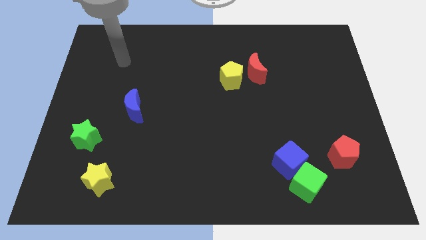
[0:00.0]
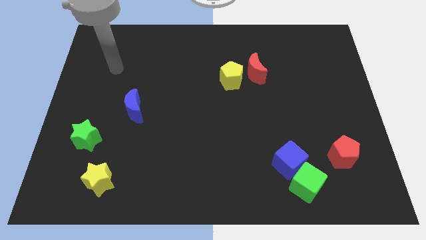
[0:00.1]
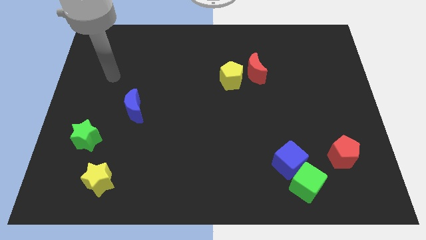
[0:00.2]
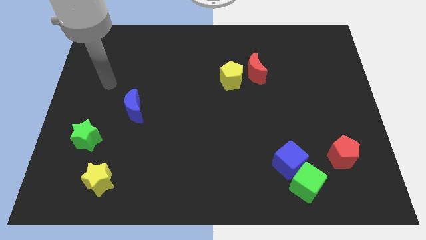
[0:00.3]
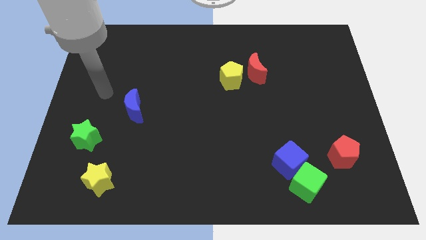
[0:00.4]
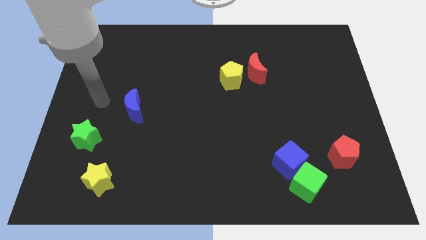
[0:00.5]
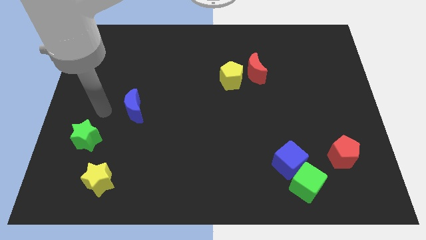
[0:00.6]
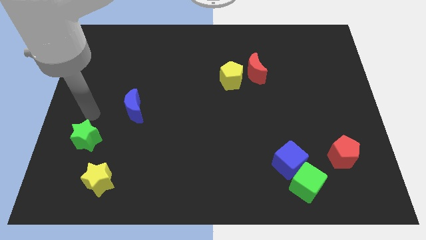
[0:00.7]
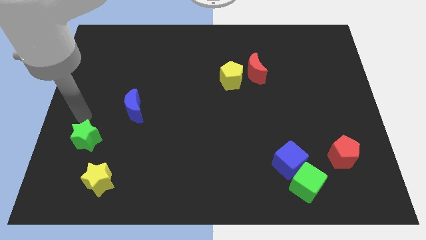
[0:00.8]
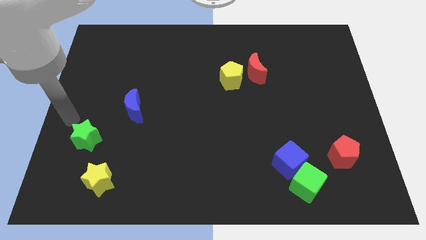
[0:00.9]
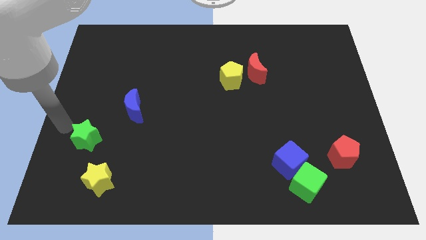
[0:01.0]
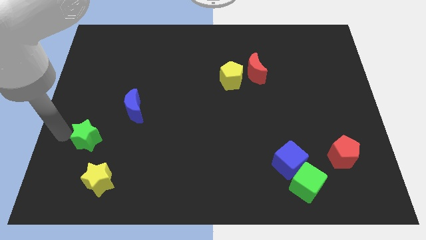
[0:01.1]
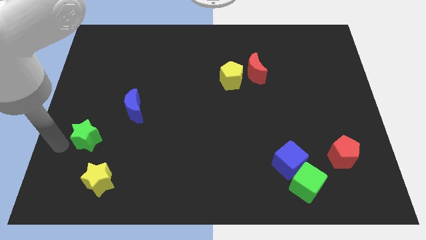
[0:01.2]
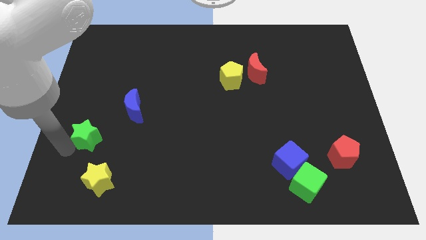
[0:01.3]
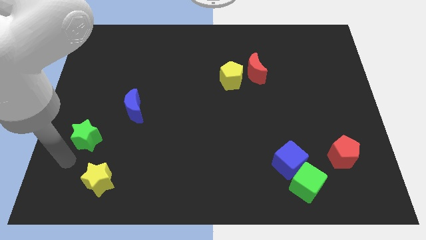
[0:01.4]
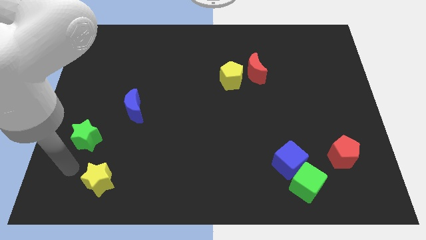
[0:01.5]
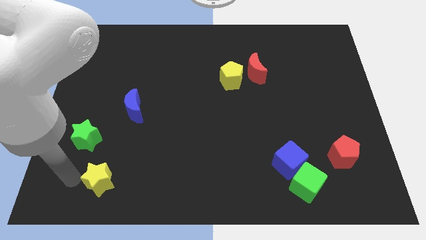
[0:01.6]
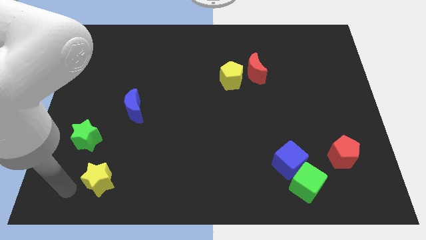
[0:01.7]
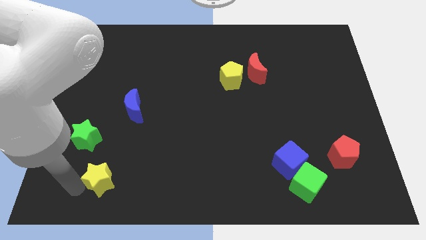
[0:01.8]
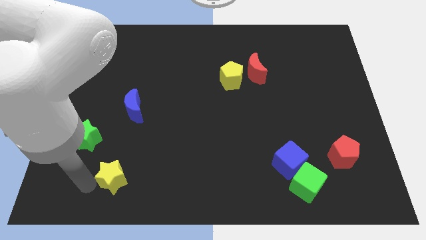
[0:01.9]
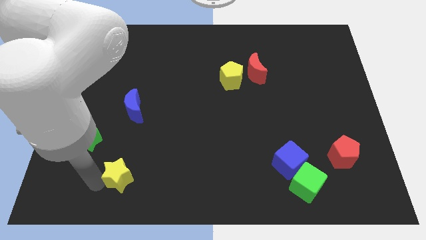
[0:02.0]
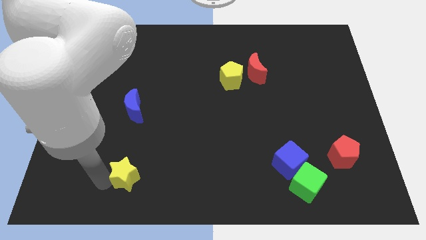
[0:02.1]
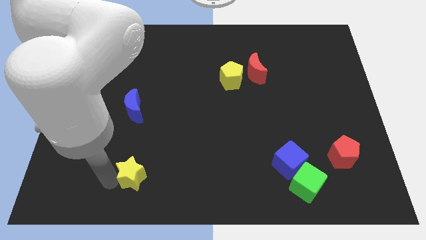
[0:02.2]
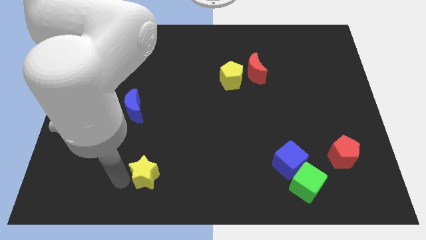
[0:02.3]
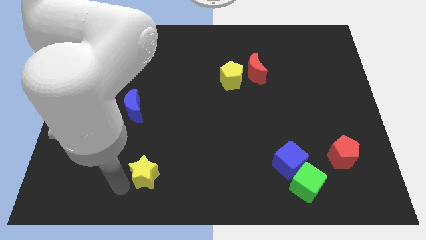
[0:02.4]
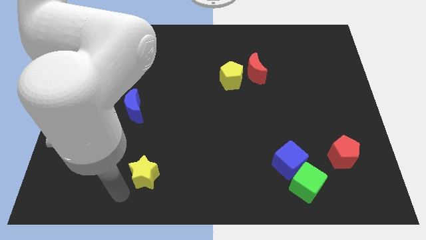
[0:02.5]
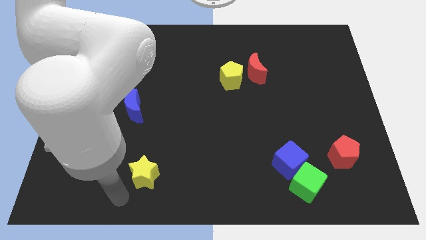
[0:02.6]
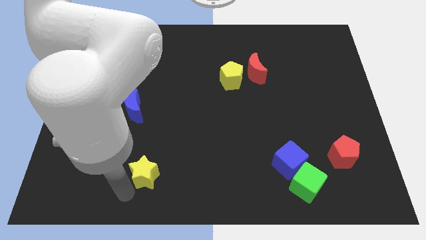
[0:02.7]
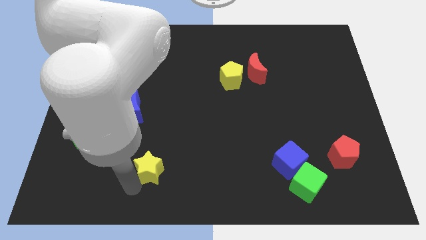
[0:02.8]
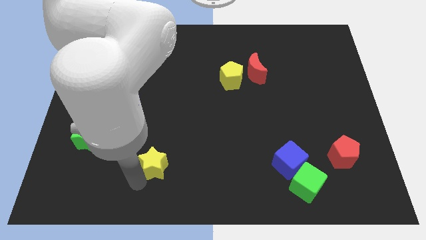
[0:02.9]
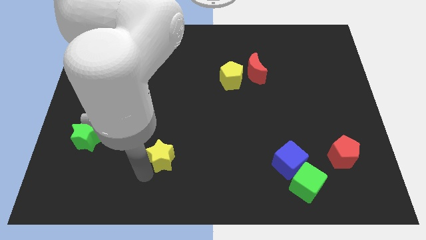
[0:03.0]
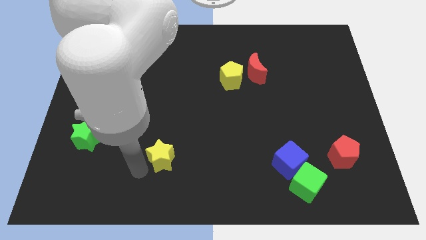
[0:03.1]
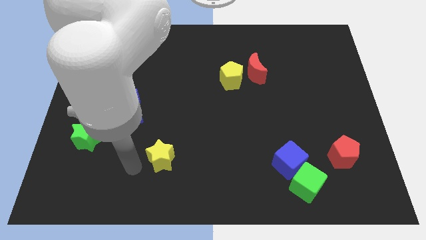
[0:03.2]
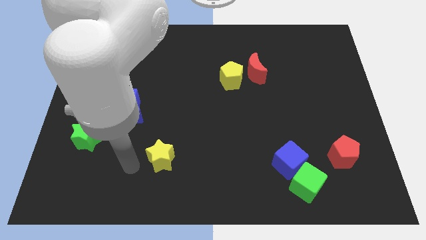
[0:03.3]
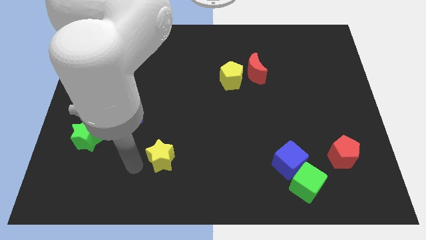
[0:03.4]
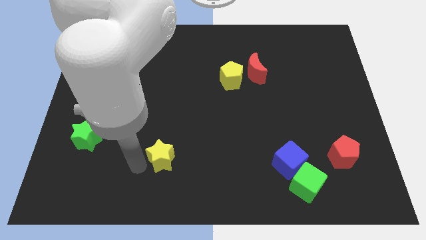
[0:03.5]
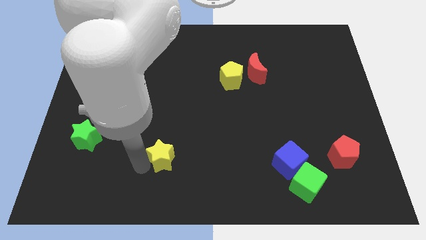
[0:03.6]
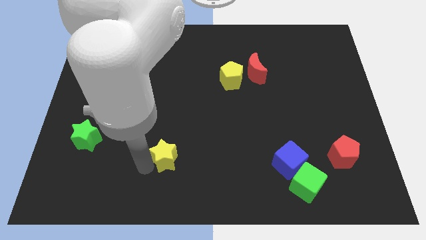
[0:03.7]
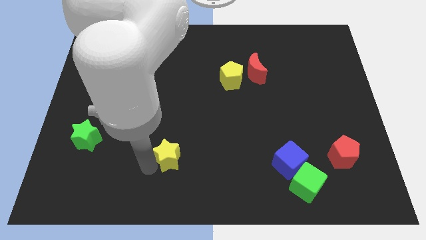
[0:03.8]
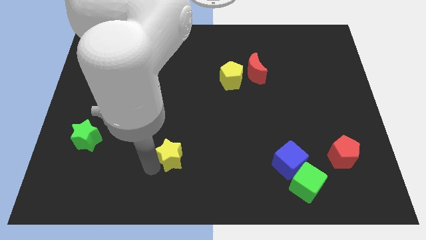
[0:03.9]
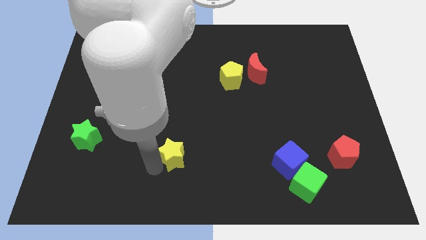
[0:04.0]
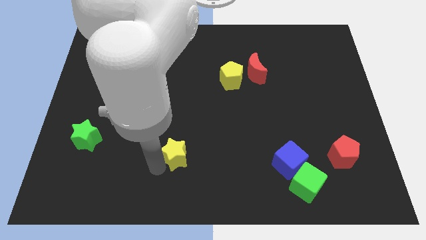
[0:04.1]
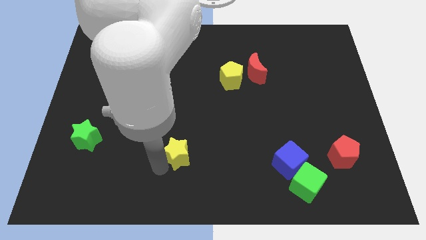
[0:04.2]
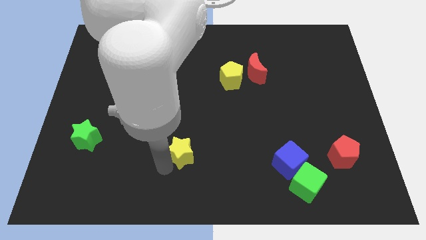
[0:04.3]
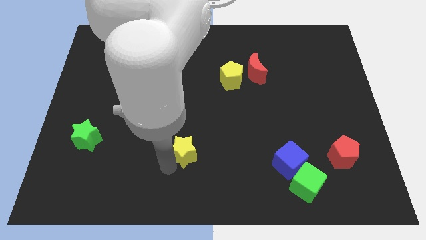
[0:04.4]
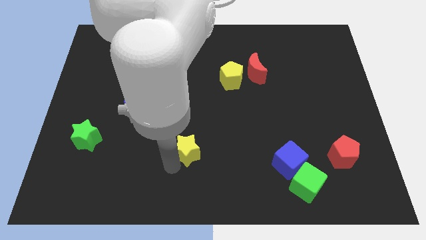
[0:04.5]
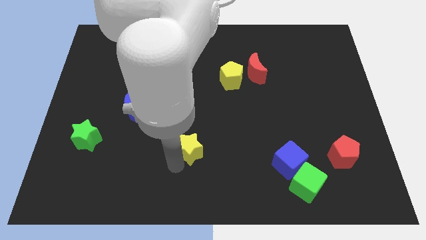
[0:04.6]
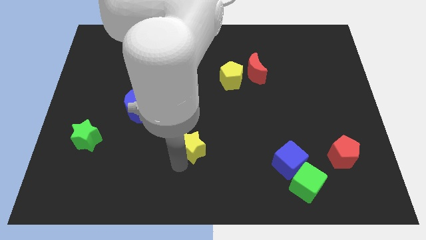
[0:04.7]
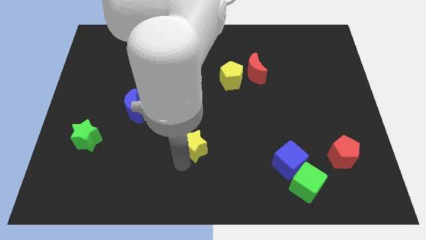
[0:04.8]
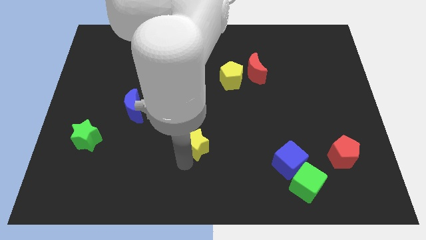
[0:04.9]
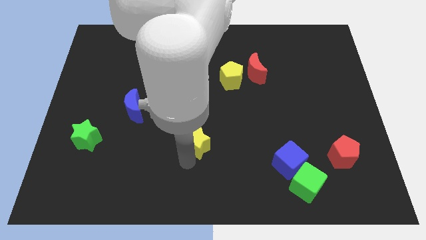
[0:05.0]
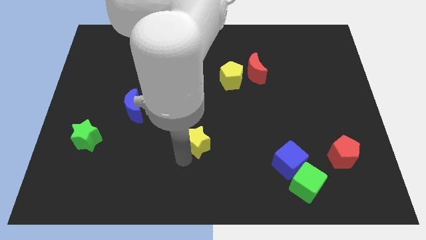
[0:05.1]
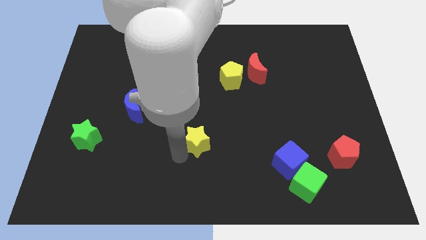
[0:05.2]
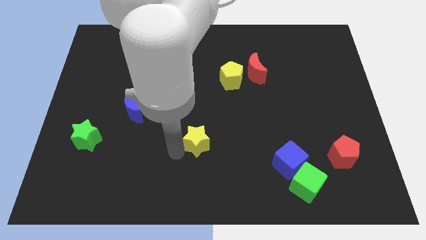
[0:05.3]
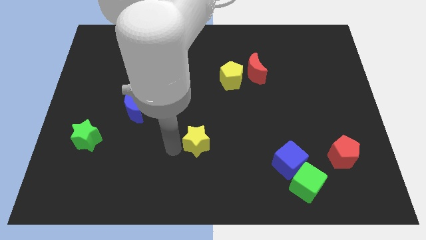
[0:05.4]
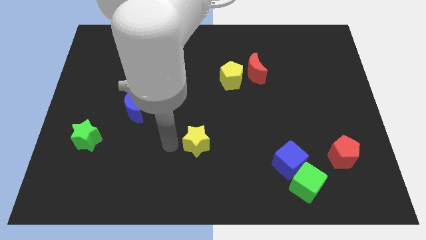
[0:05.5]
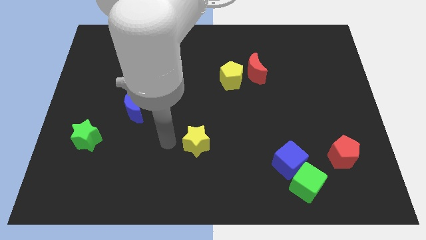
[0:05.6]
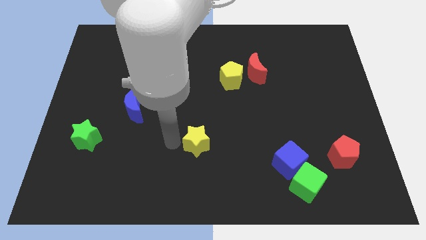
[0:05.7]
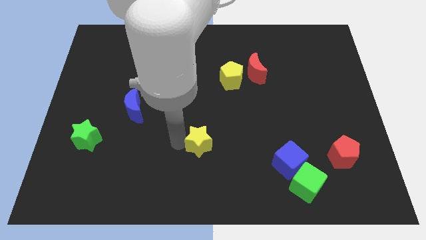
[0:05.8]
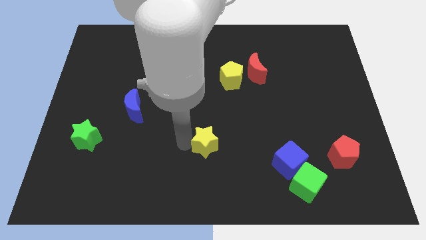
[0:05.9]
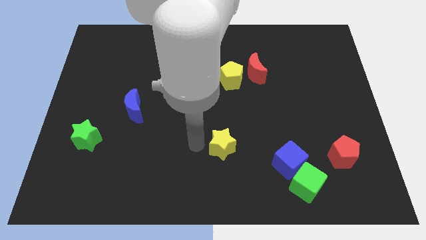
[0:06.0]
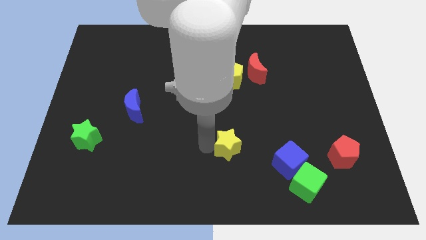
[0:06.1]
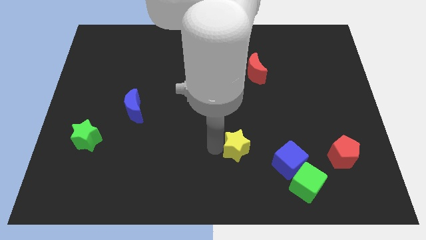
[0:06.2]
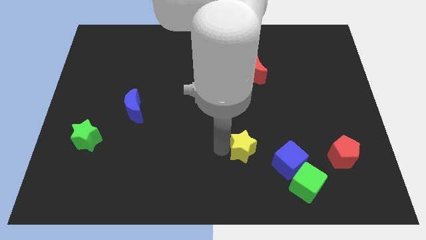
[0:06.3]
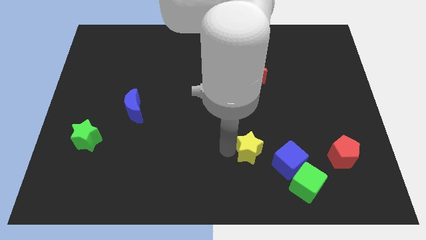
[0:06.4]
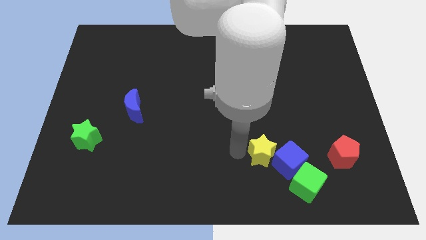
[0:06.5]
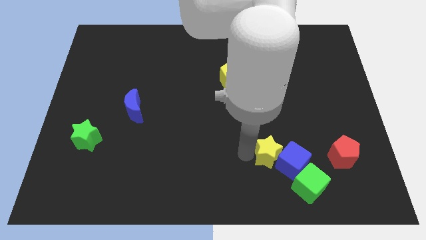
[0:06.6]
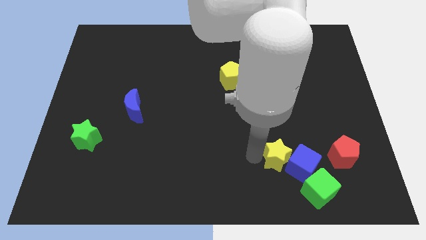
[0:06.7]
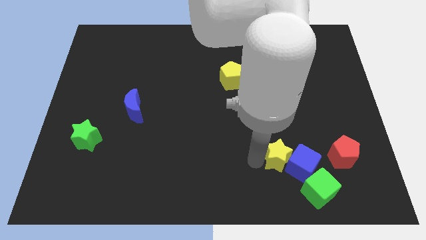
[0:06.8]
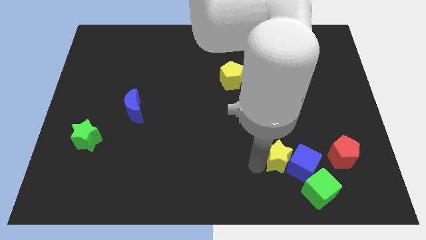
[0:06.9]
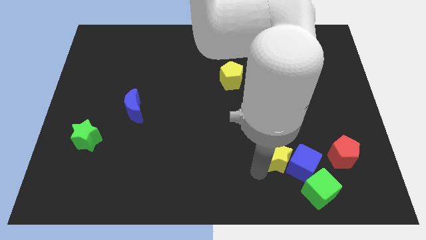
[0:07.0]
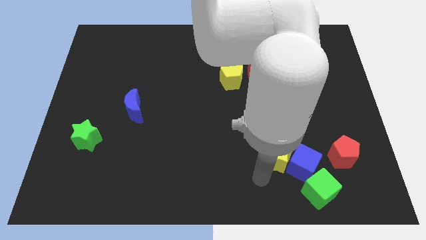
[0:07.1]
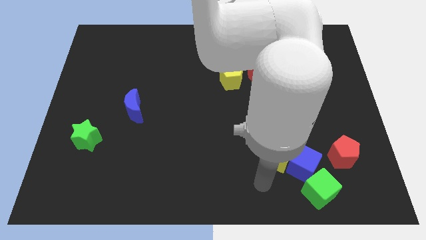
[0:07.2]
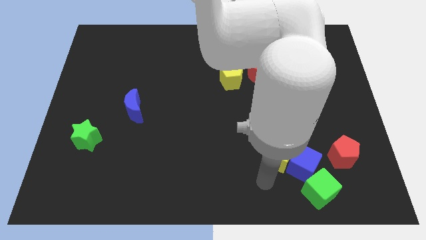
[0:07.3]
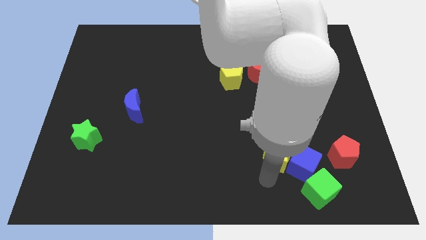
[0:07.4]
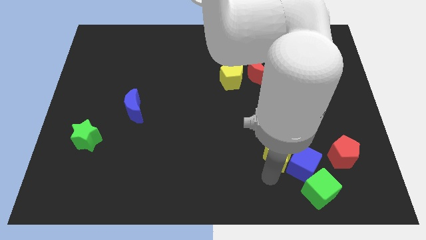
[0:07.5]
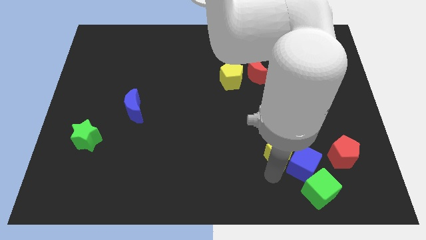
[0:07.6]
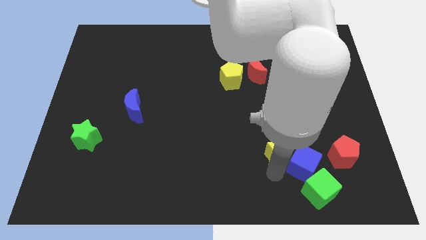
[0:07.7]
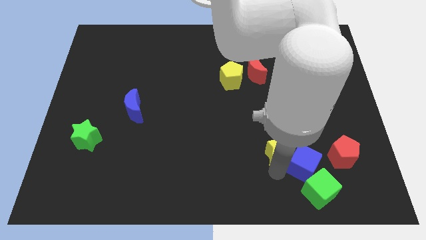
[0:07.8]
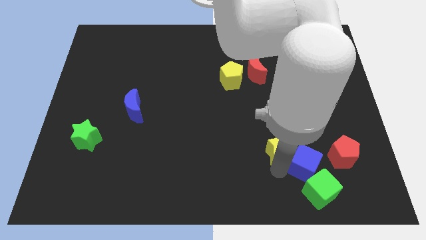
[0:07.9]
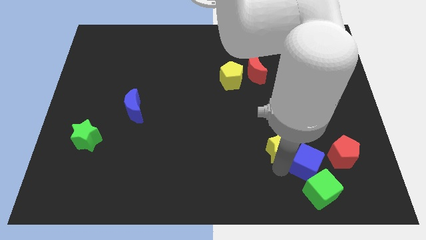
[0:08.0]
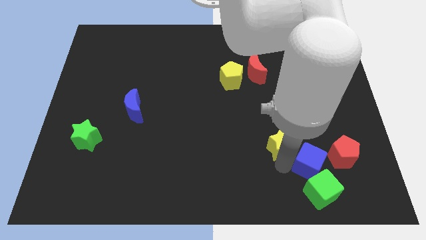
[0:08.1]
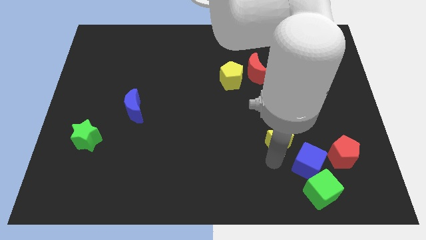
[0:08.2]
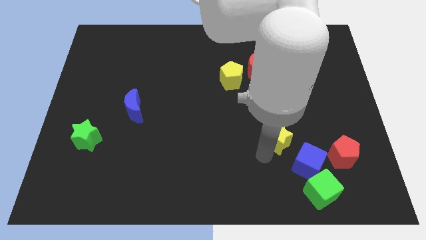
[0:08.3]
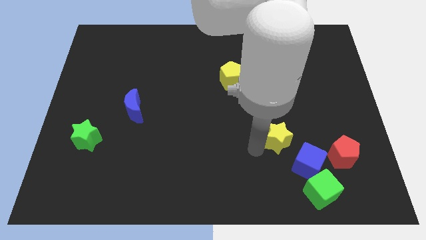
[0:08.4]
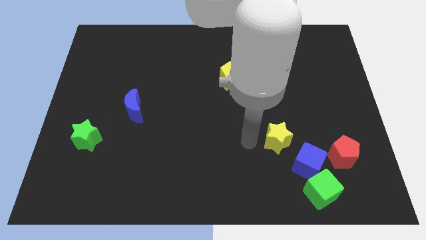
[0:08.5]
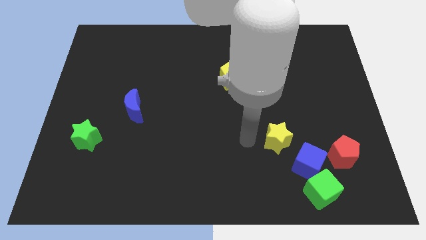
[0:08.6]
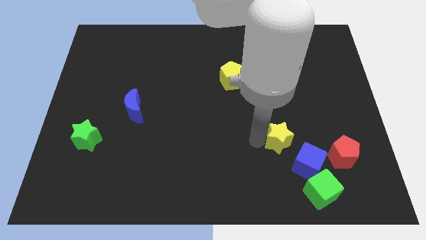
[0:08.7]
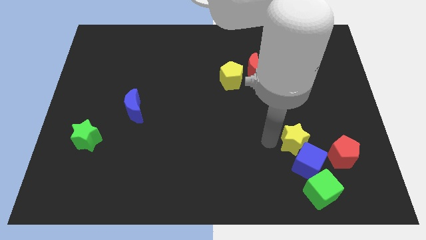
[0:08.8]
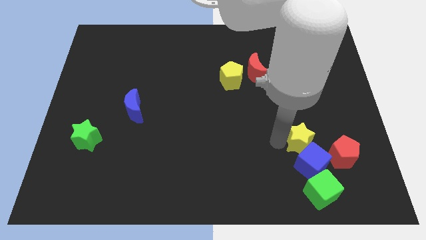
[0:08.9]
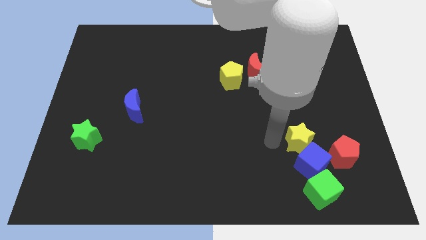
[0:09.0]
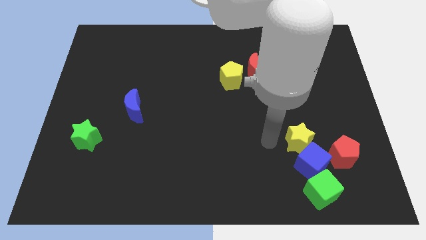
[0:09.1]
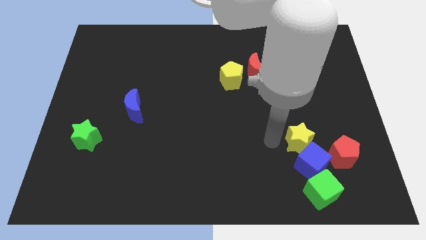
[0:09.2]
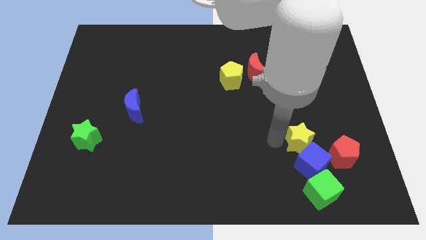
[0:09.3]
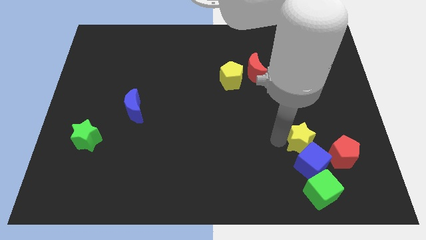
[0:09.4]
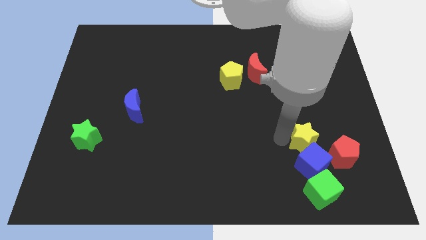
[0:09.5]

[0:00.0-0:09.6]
move the yellow star diagonally up and to the right of the blue cube
